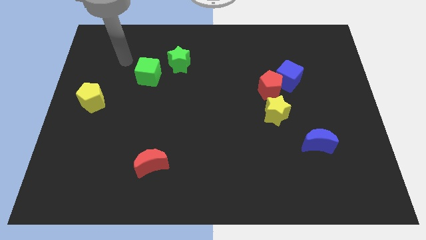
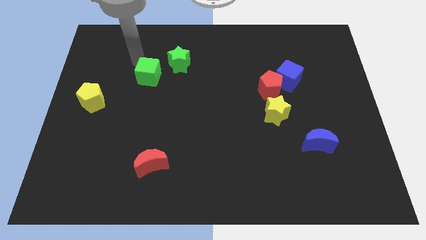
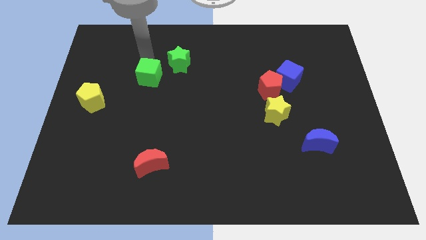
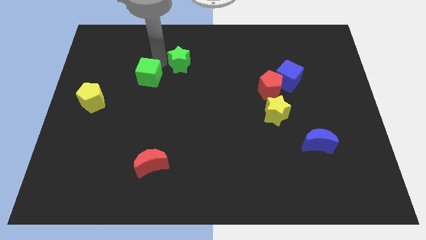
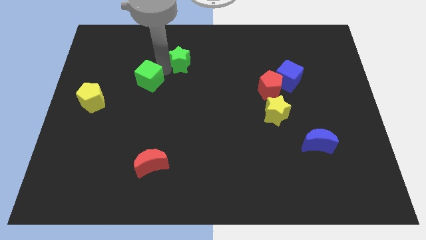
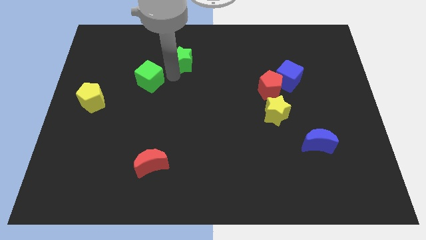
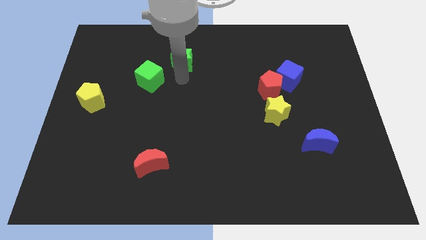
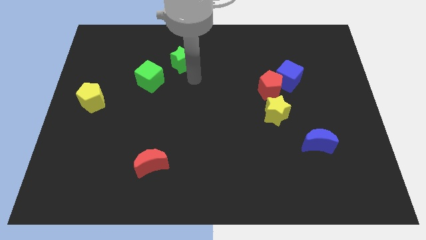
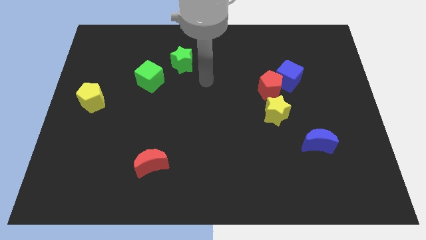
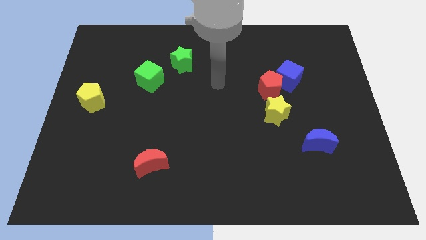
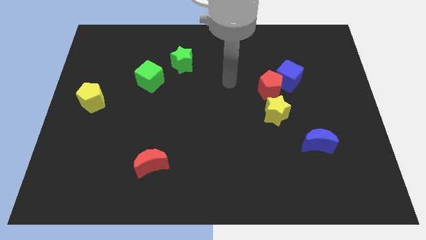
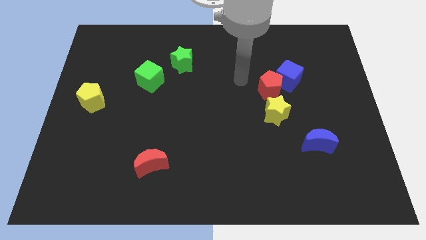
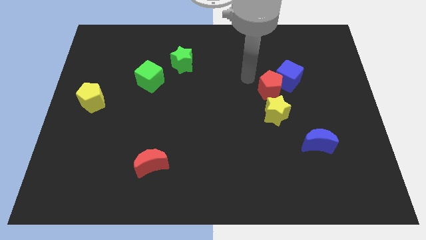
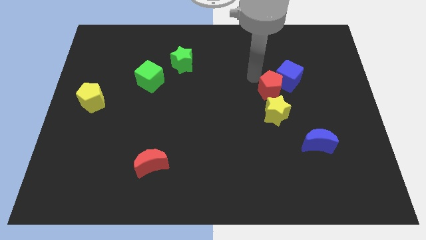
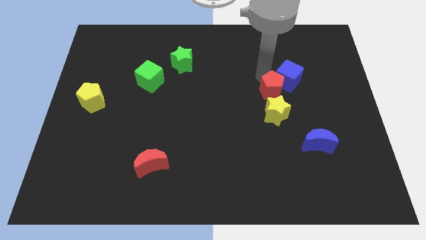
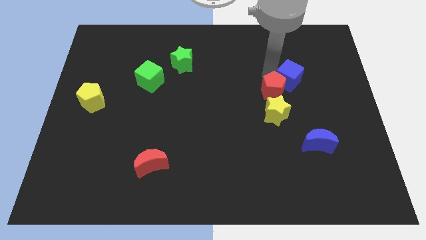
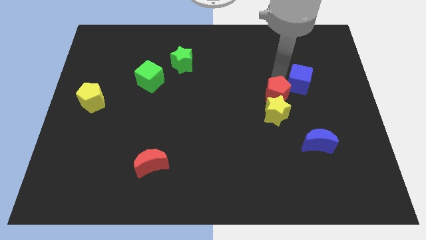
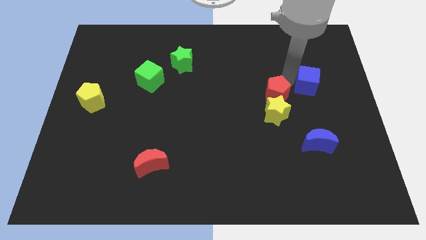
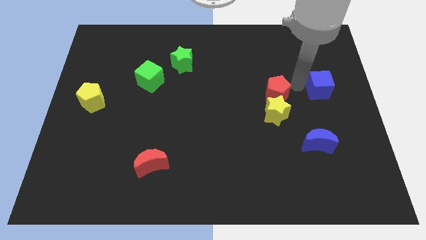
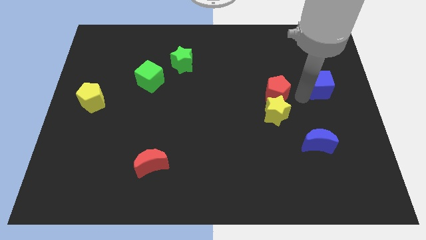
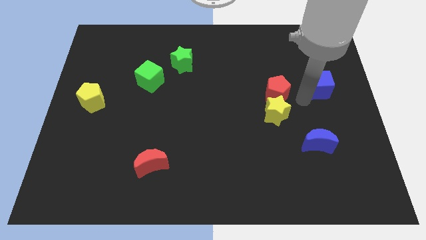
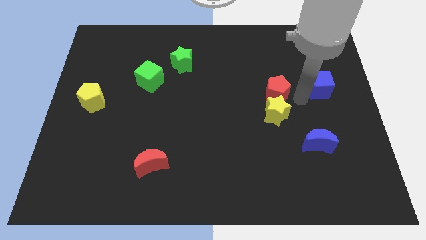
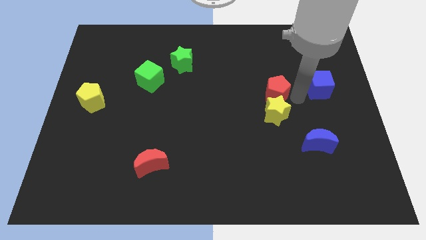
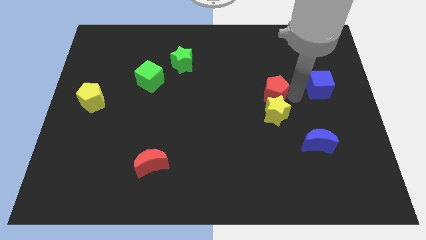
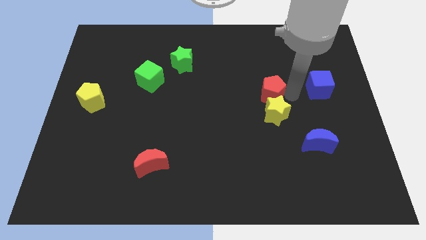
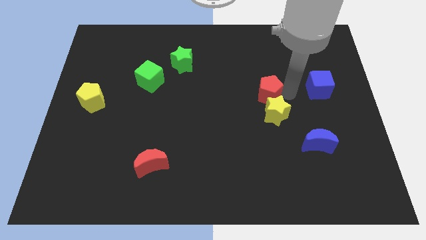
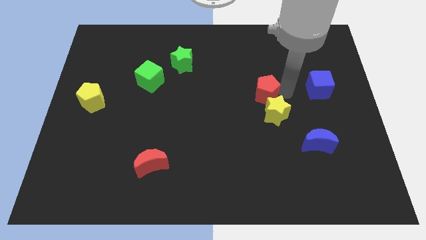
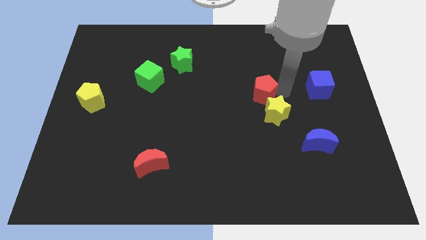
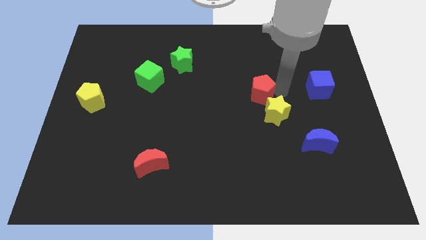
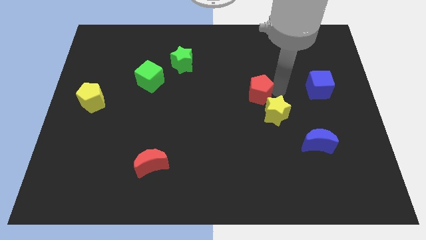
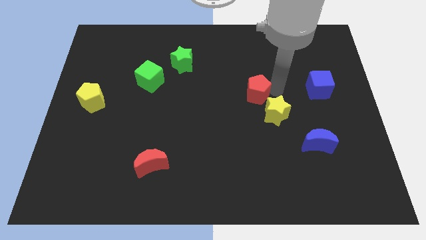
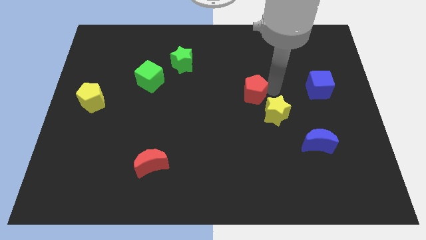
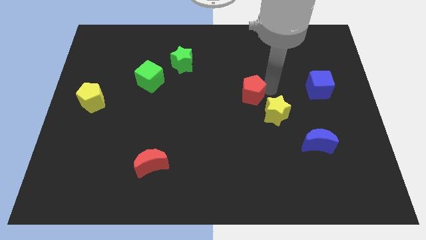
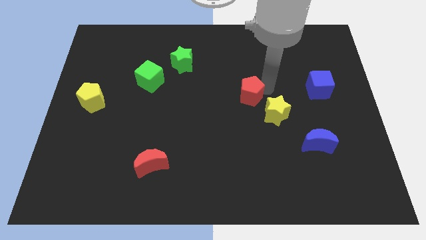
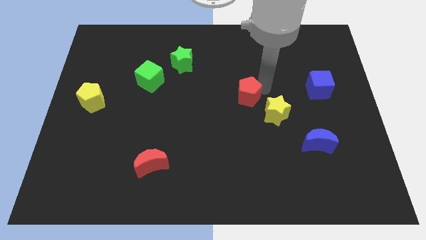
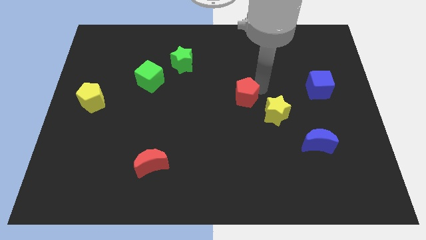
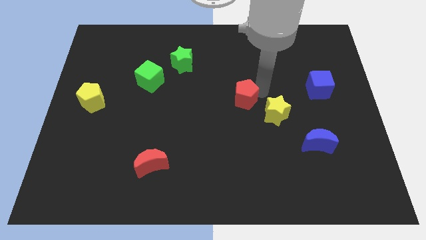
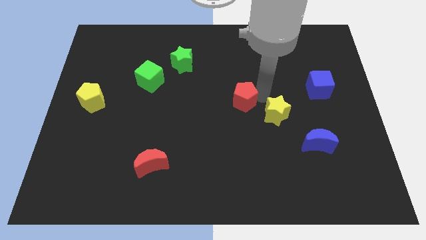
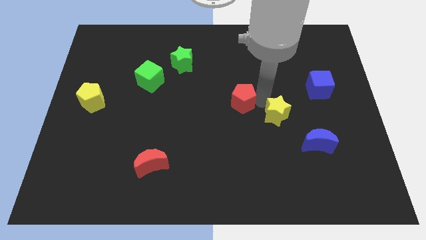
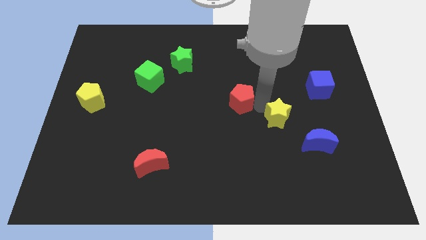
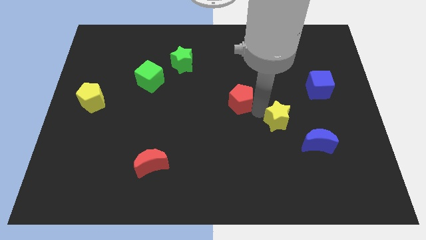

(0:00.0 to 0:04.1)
slightly push the red pentagon to the left

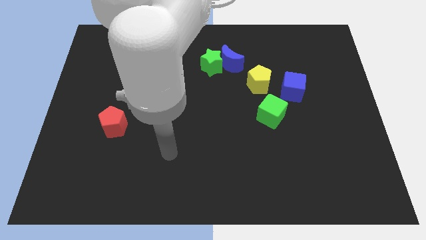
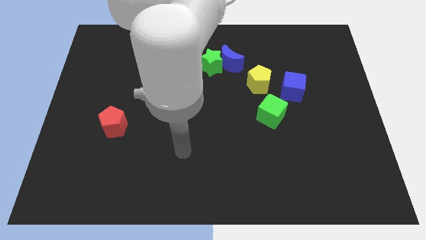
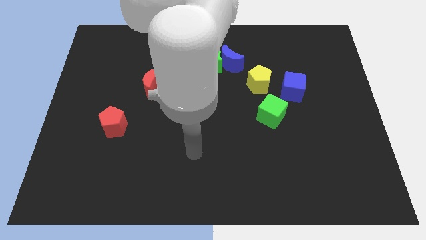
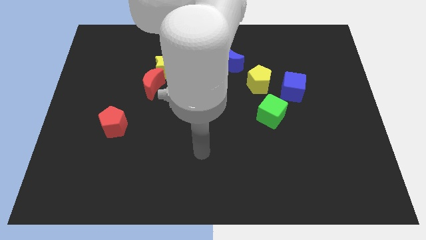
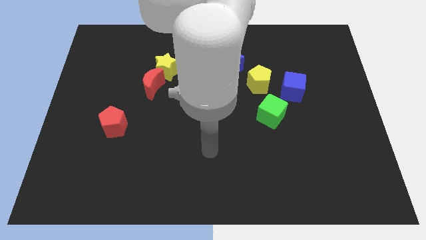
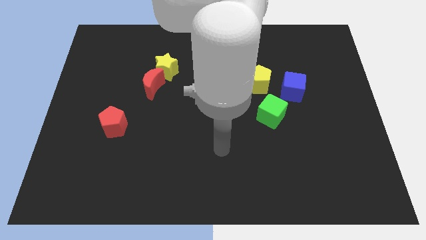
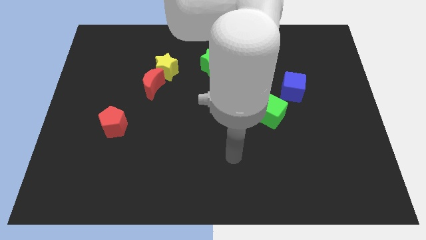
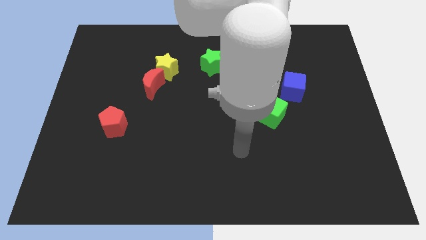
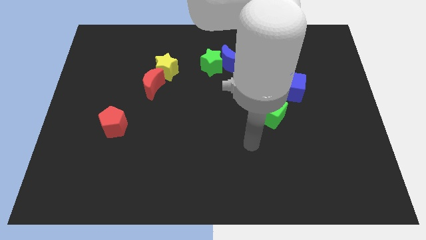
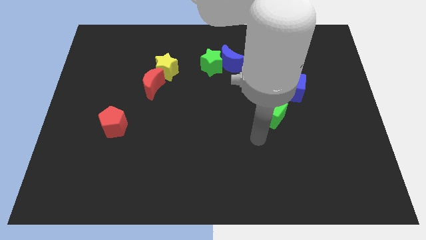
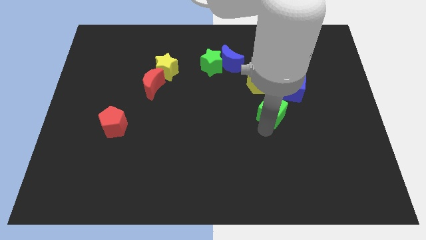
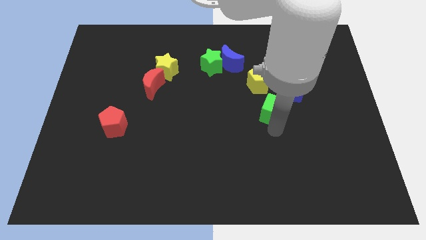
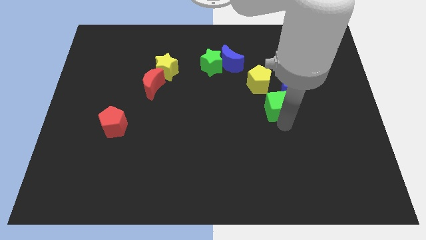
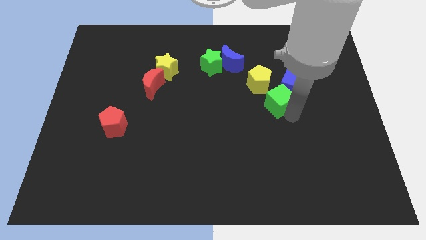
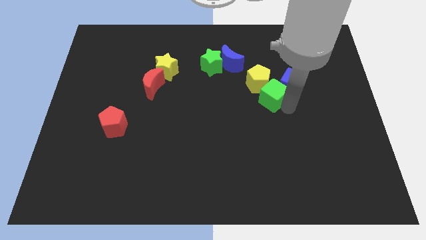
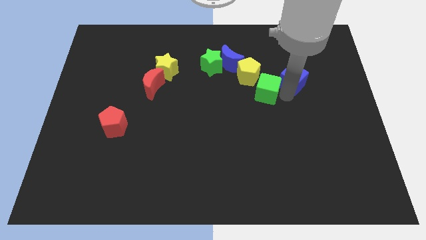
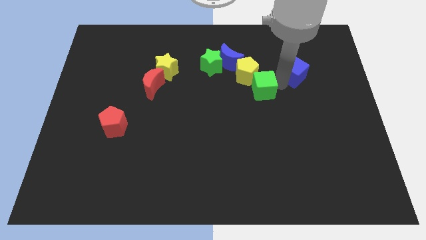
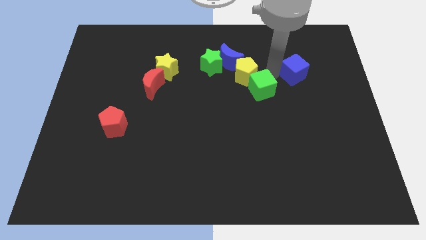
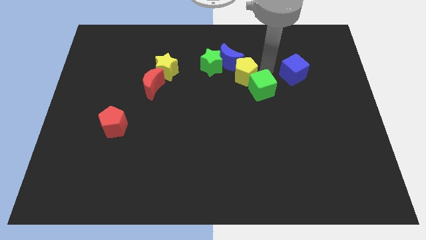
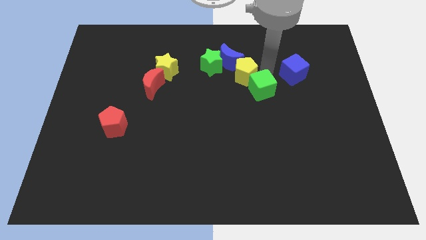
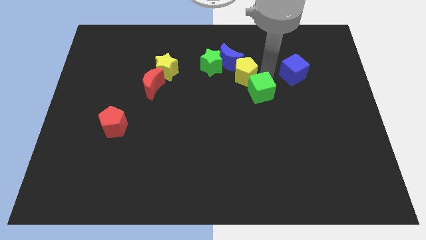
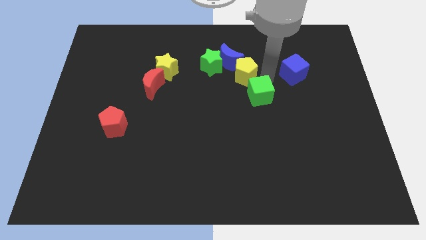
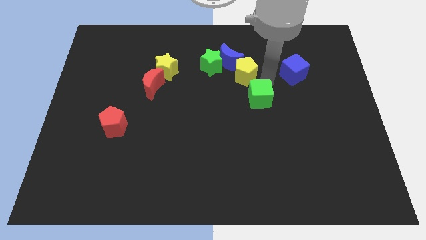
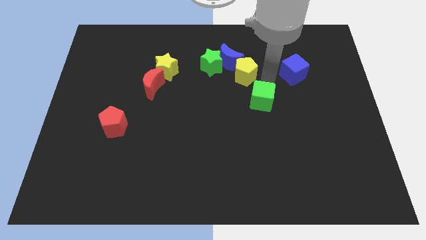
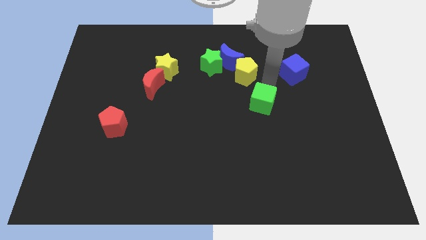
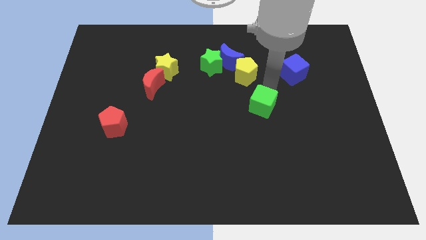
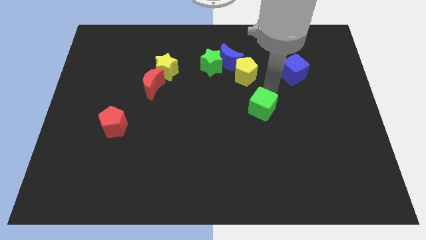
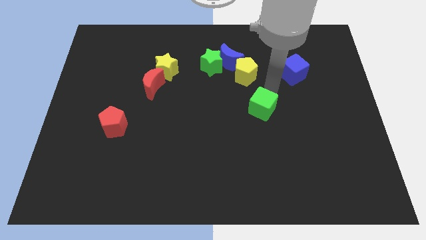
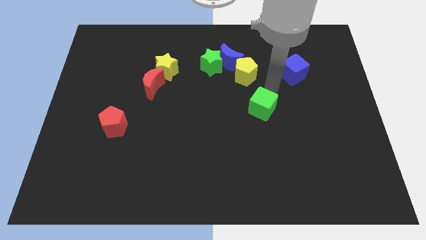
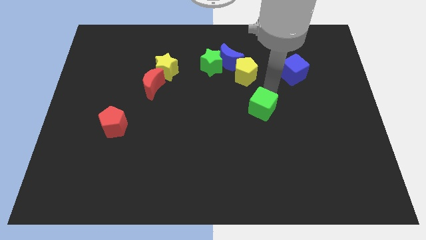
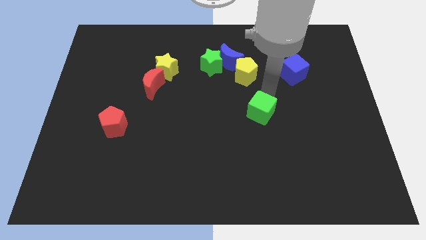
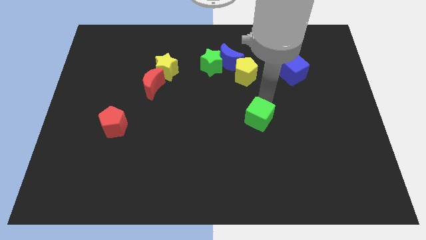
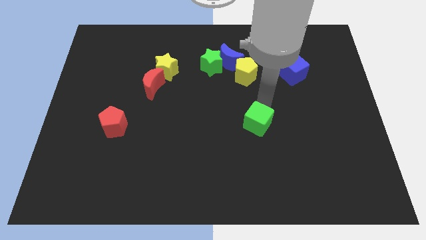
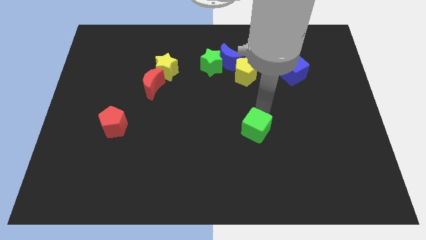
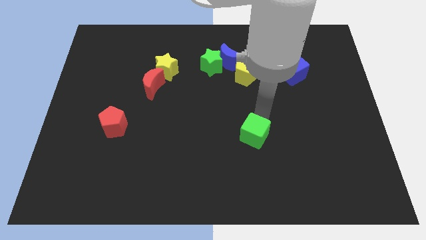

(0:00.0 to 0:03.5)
slightly push the green cube downwards and then left

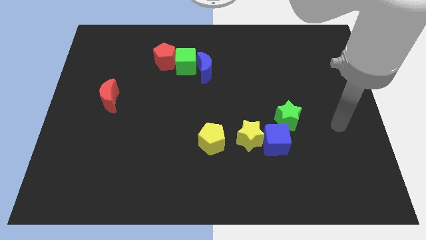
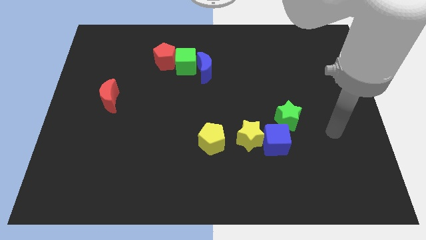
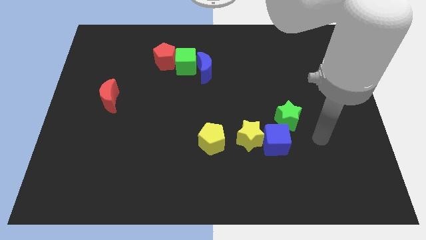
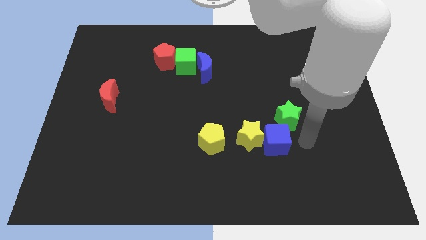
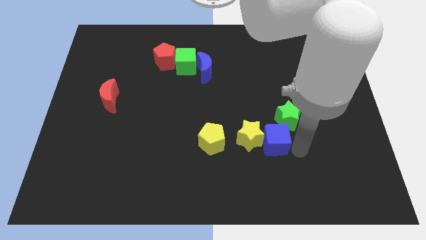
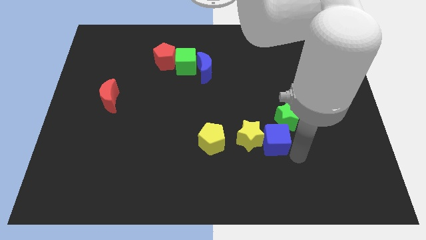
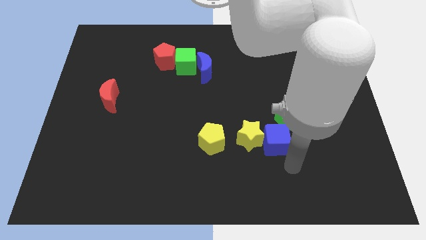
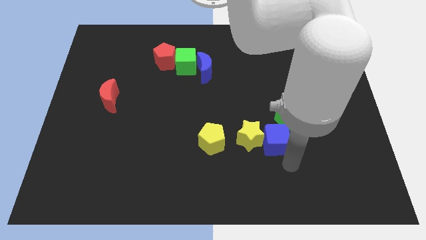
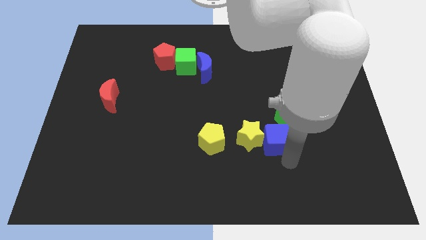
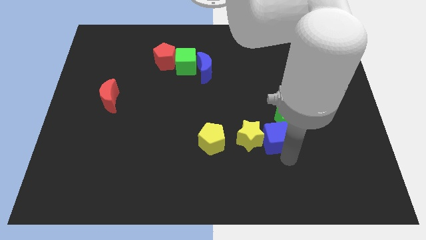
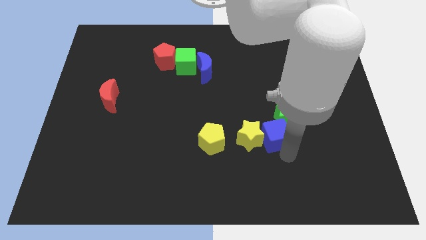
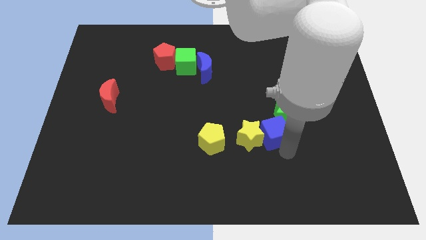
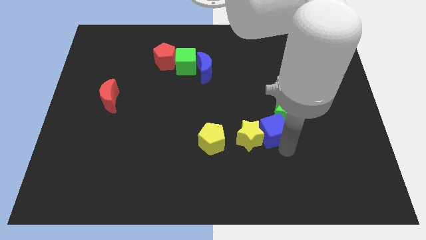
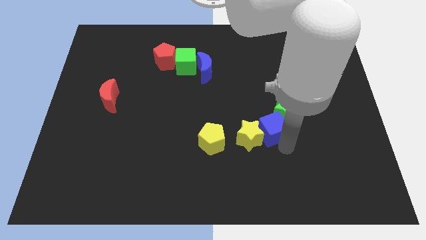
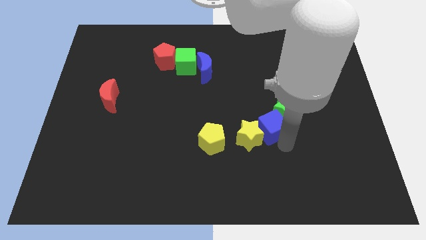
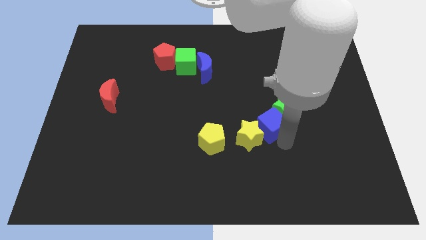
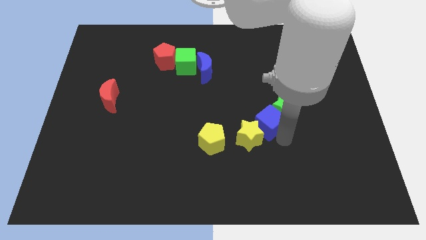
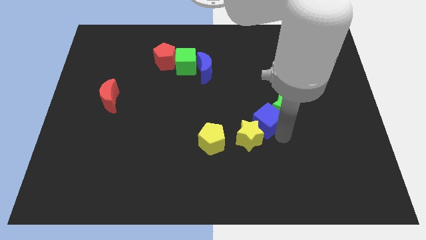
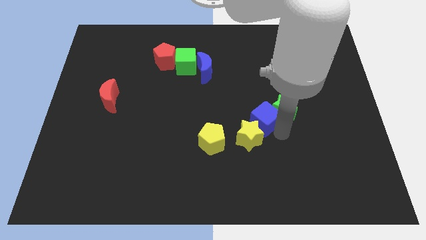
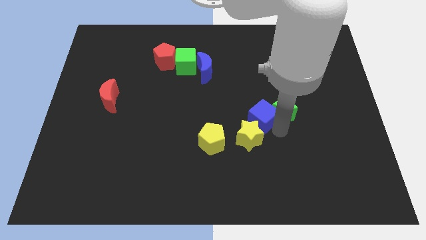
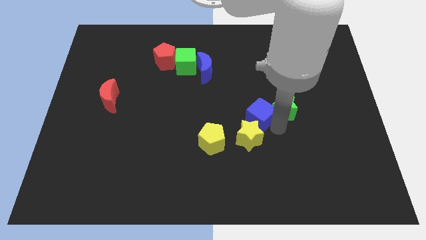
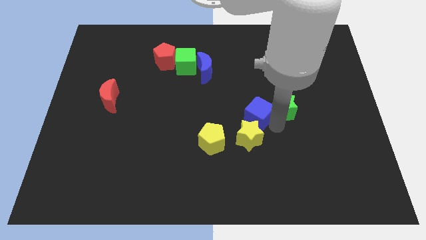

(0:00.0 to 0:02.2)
push the blue cube a bit up and left
